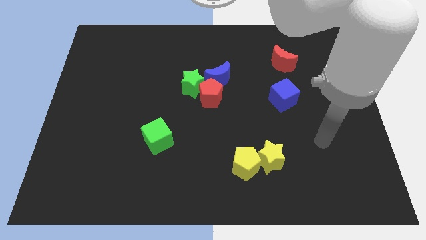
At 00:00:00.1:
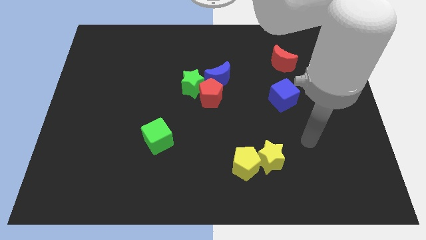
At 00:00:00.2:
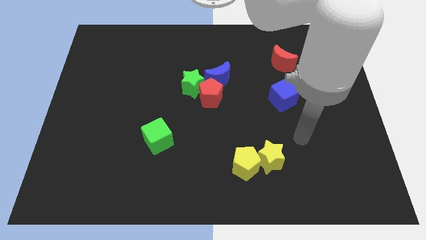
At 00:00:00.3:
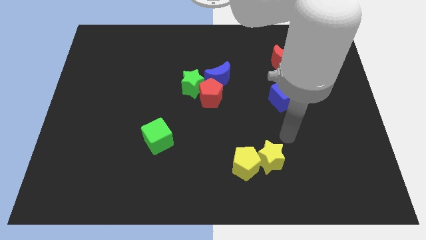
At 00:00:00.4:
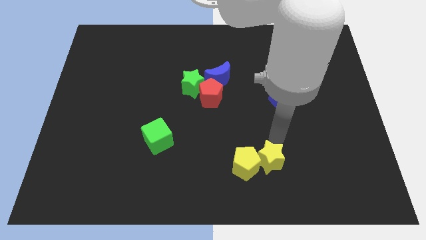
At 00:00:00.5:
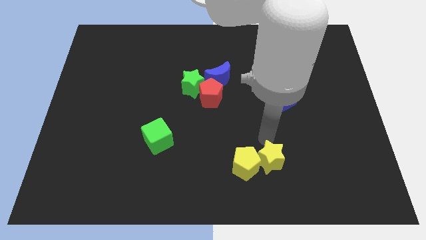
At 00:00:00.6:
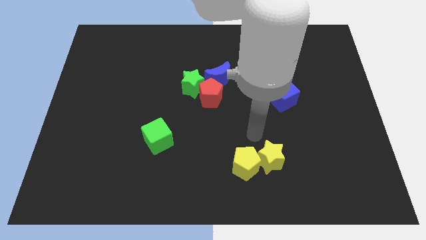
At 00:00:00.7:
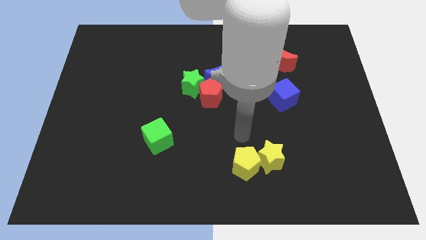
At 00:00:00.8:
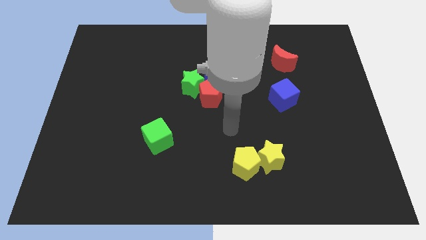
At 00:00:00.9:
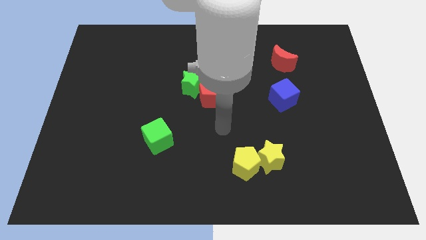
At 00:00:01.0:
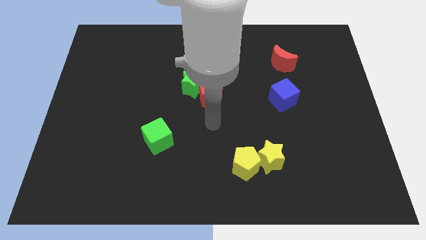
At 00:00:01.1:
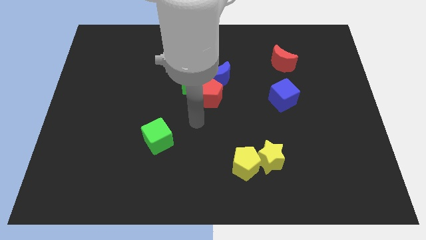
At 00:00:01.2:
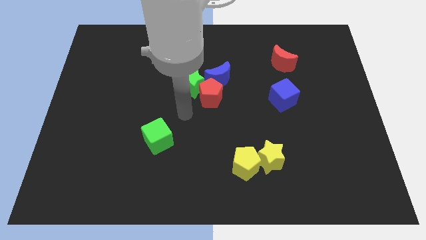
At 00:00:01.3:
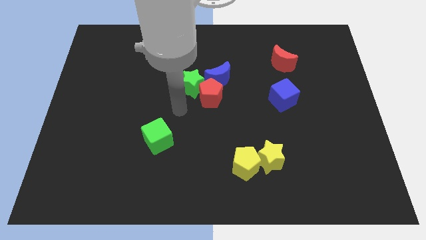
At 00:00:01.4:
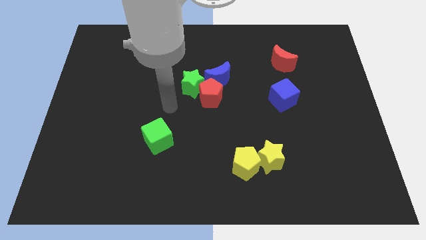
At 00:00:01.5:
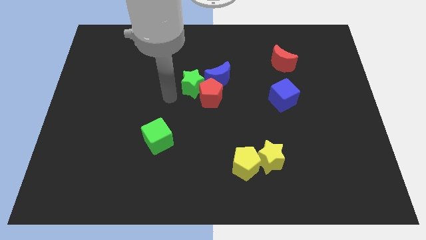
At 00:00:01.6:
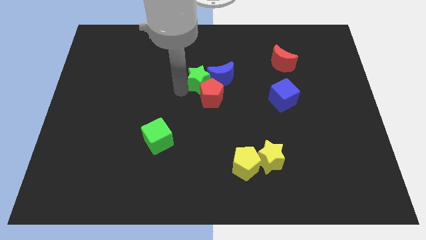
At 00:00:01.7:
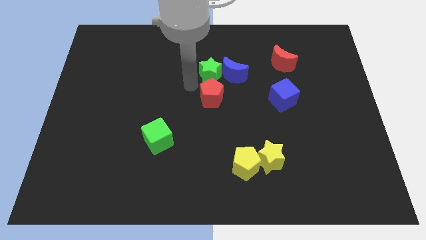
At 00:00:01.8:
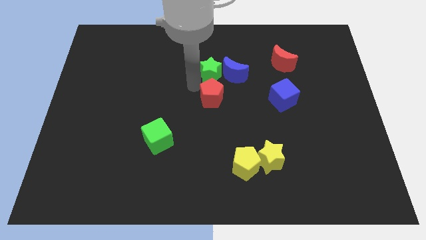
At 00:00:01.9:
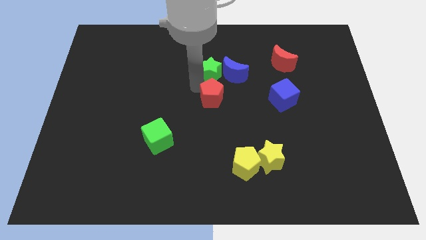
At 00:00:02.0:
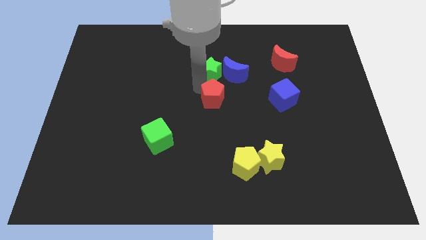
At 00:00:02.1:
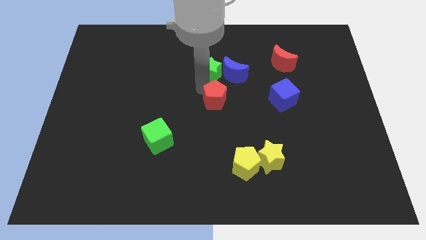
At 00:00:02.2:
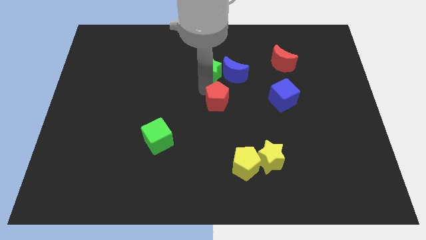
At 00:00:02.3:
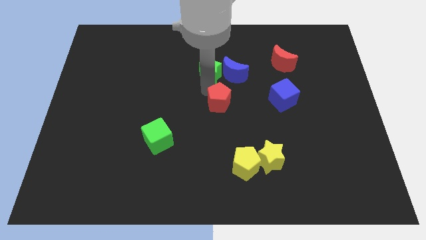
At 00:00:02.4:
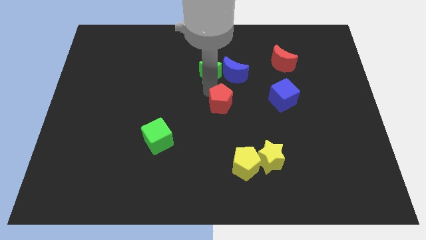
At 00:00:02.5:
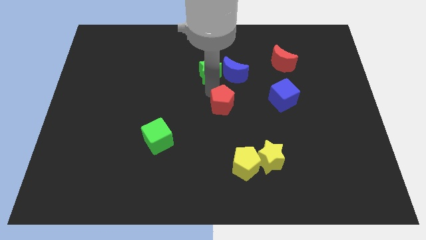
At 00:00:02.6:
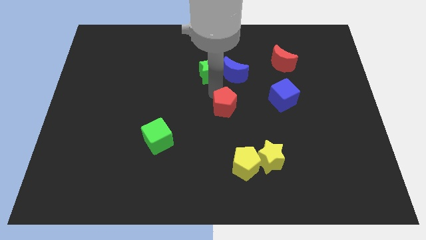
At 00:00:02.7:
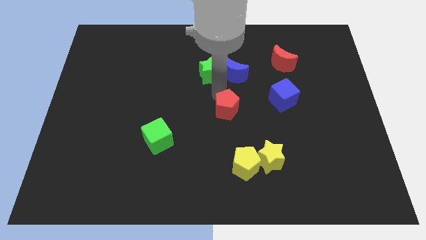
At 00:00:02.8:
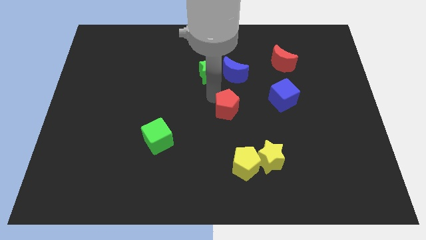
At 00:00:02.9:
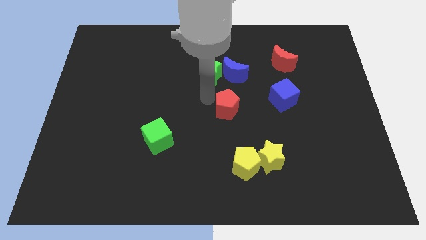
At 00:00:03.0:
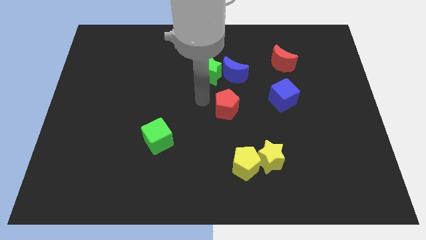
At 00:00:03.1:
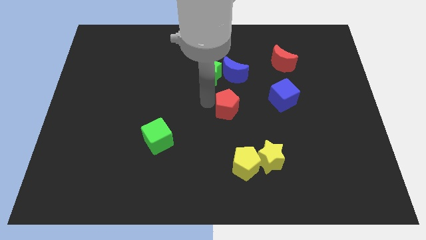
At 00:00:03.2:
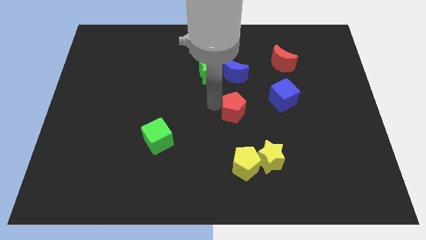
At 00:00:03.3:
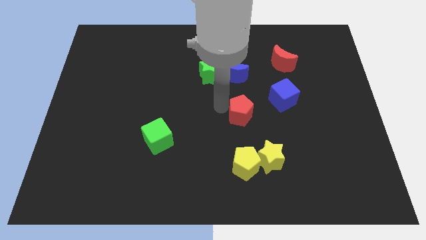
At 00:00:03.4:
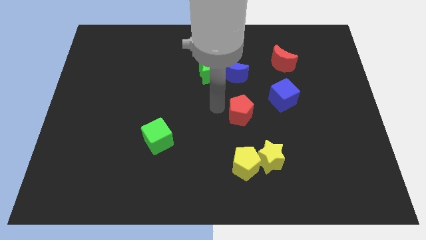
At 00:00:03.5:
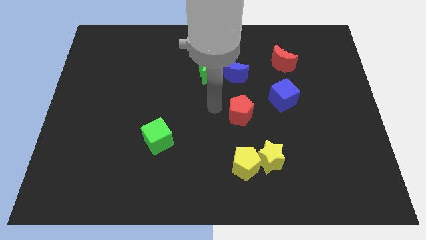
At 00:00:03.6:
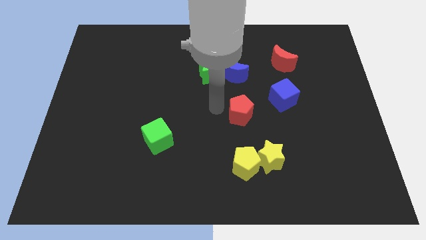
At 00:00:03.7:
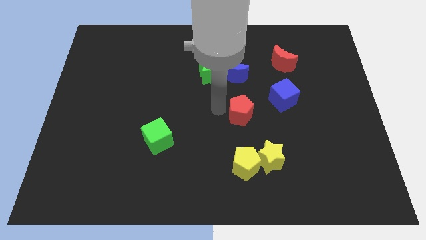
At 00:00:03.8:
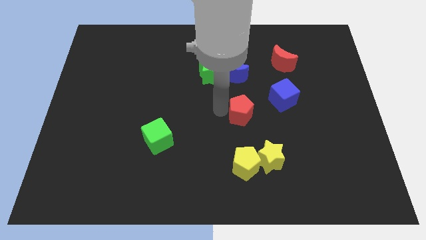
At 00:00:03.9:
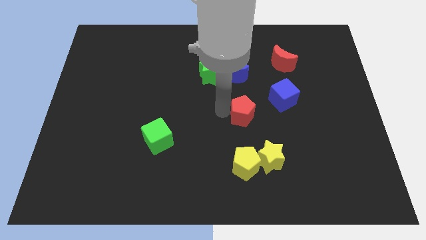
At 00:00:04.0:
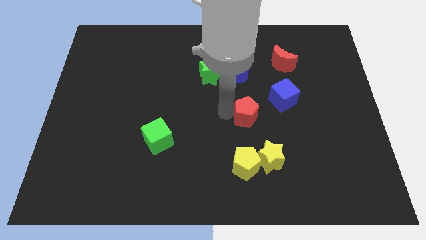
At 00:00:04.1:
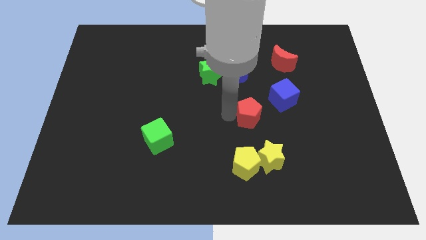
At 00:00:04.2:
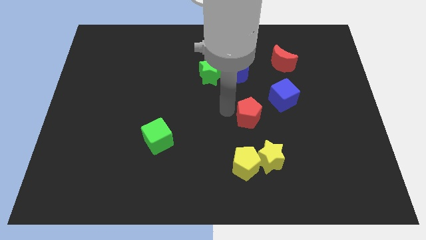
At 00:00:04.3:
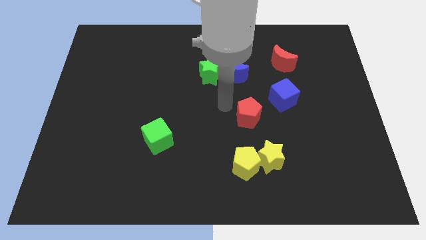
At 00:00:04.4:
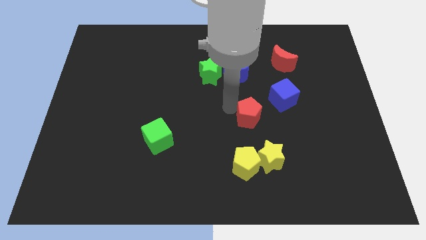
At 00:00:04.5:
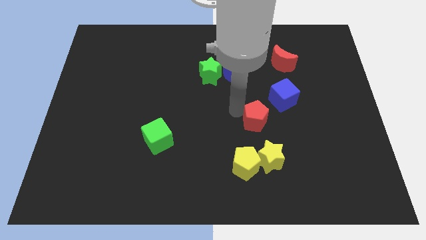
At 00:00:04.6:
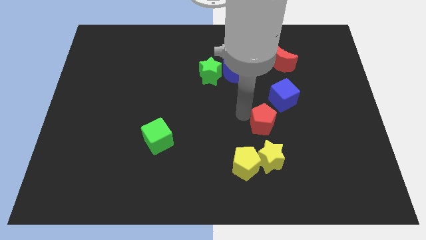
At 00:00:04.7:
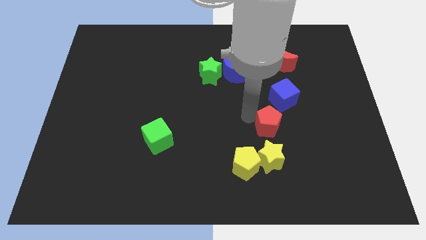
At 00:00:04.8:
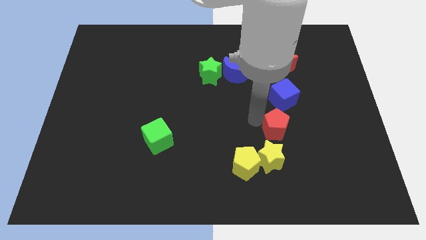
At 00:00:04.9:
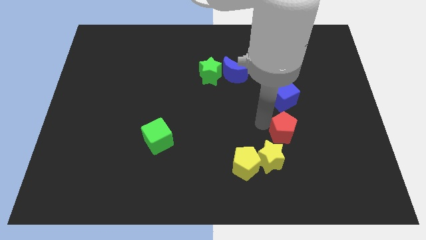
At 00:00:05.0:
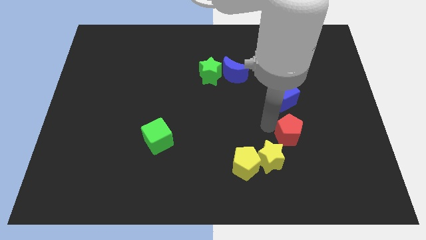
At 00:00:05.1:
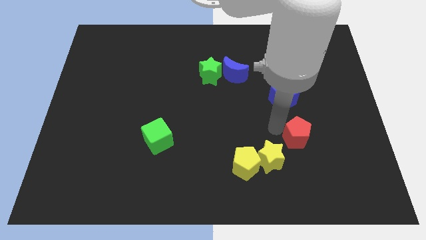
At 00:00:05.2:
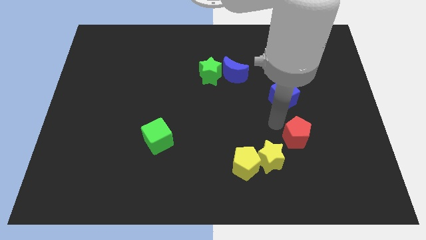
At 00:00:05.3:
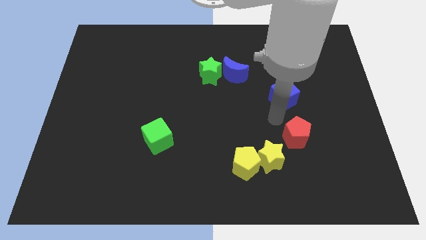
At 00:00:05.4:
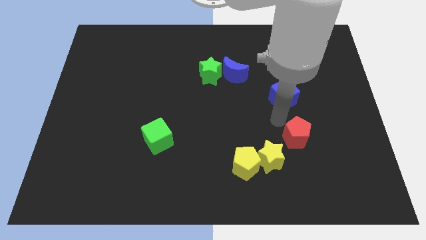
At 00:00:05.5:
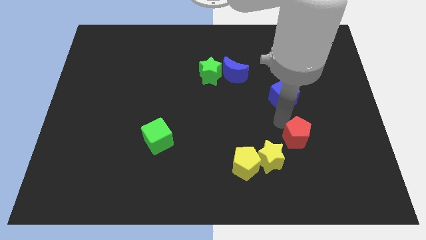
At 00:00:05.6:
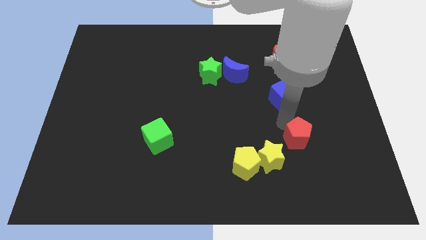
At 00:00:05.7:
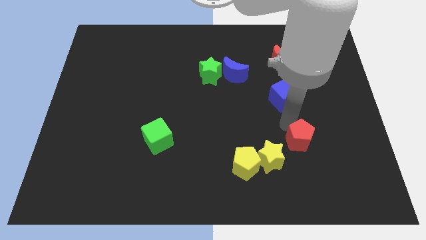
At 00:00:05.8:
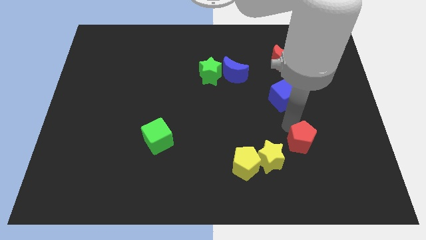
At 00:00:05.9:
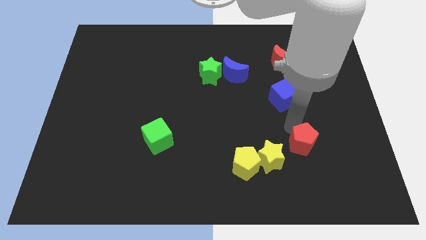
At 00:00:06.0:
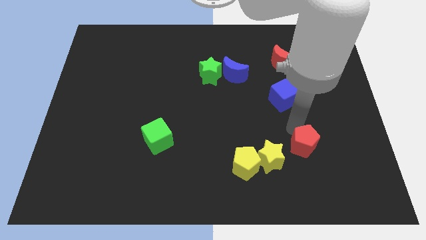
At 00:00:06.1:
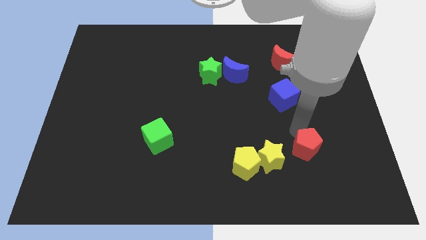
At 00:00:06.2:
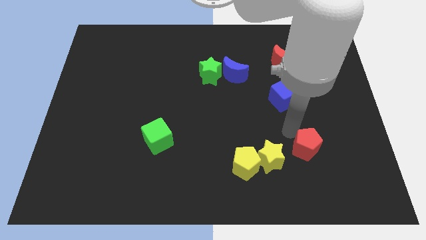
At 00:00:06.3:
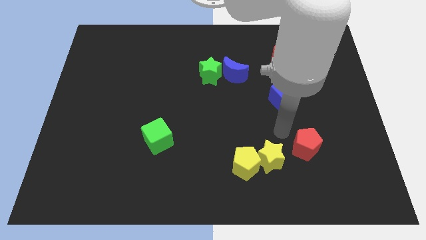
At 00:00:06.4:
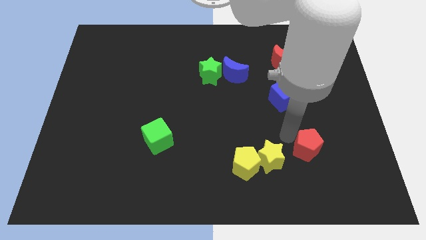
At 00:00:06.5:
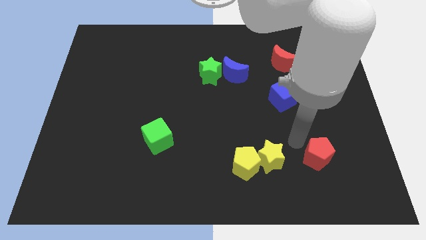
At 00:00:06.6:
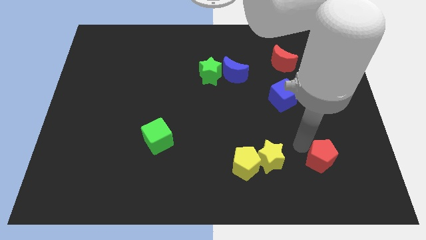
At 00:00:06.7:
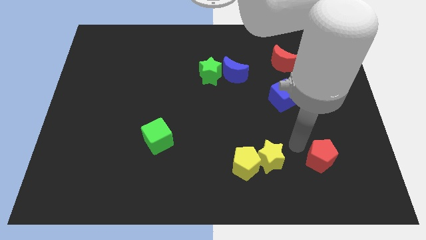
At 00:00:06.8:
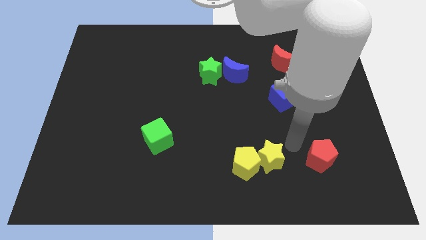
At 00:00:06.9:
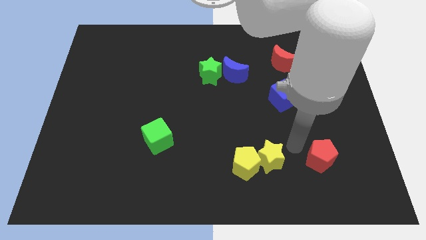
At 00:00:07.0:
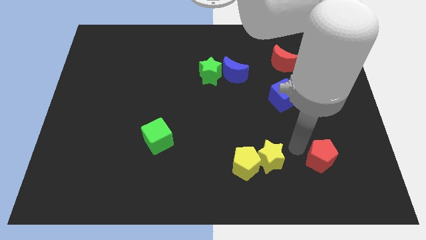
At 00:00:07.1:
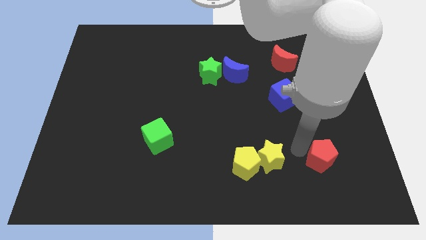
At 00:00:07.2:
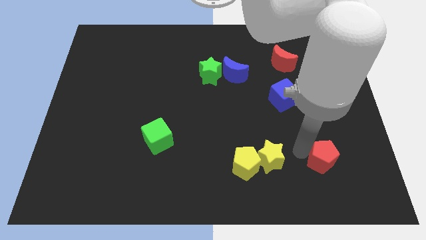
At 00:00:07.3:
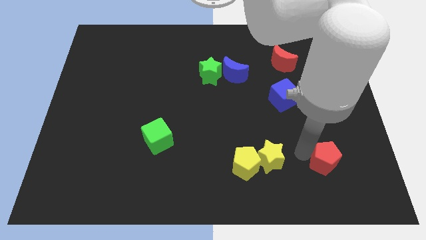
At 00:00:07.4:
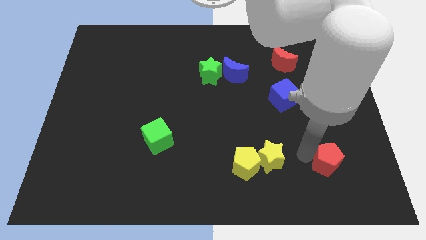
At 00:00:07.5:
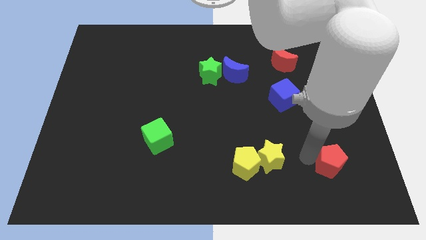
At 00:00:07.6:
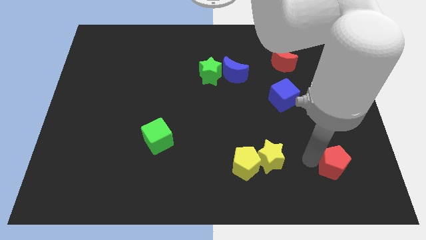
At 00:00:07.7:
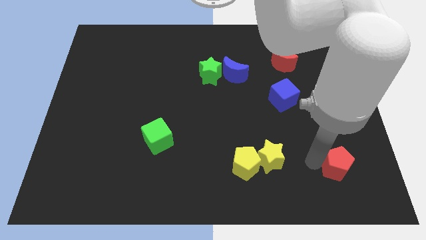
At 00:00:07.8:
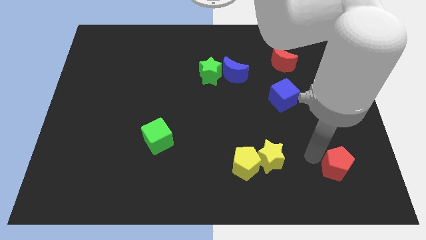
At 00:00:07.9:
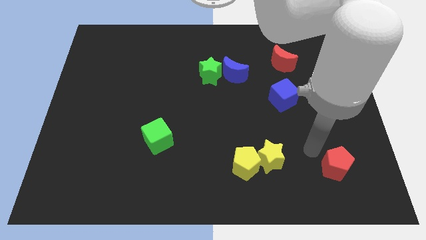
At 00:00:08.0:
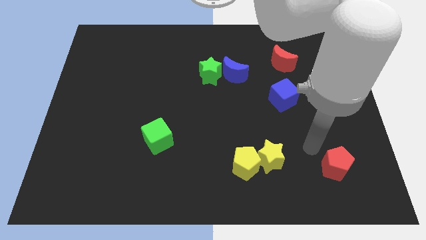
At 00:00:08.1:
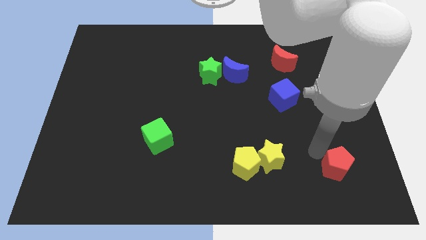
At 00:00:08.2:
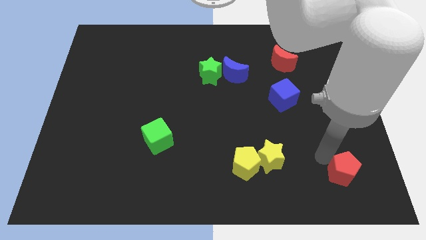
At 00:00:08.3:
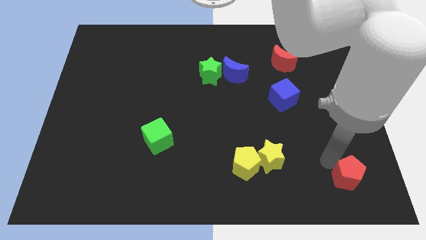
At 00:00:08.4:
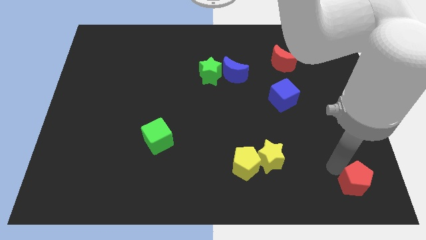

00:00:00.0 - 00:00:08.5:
slide the red pentagon to the bottom right
